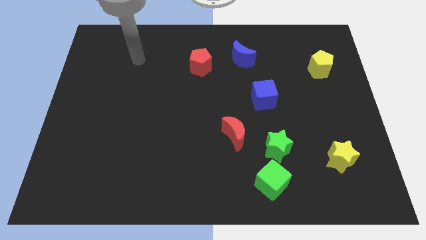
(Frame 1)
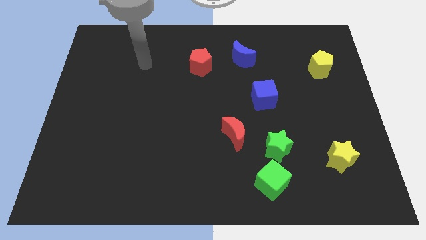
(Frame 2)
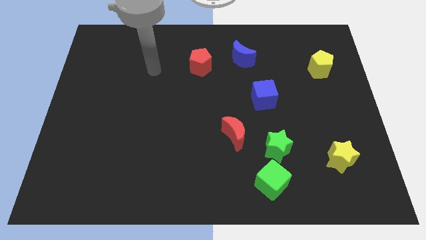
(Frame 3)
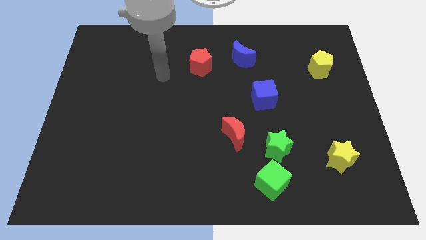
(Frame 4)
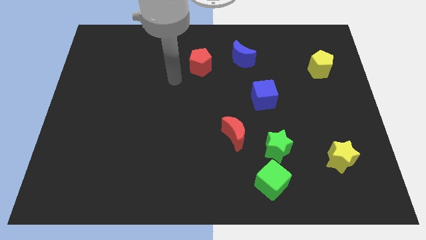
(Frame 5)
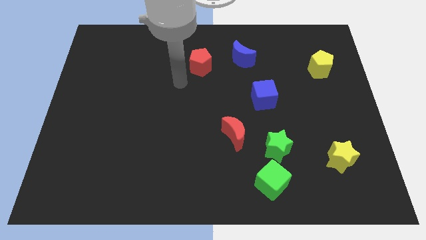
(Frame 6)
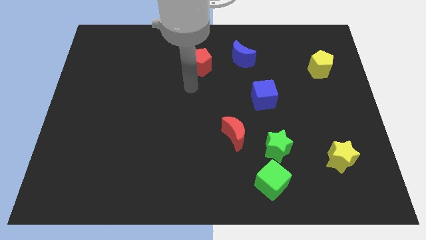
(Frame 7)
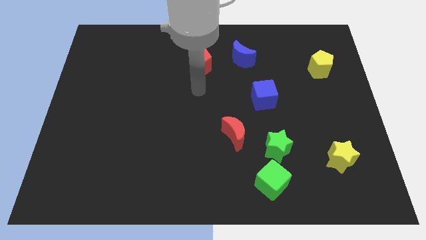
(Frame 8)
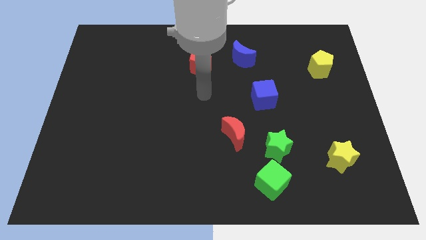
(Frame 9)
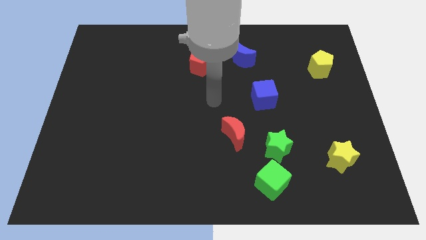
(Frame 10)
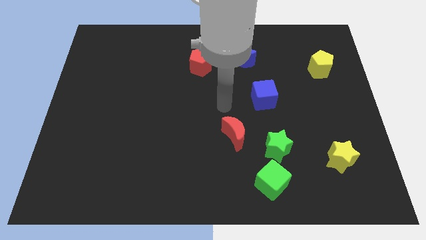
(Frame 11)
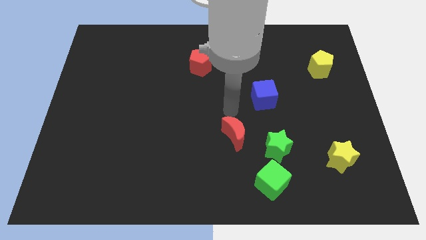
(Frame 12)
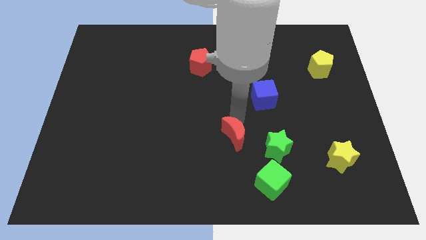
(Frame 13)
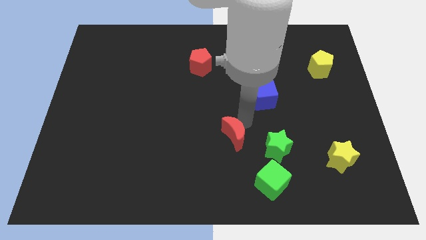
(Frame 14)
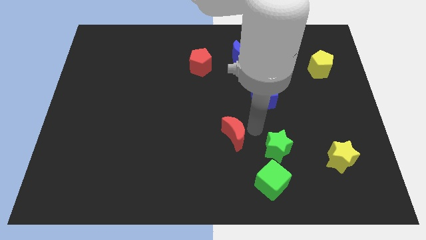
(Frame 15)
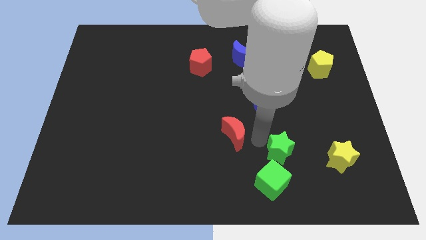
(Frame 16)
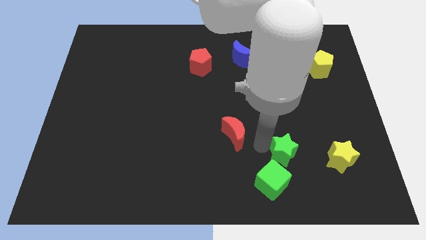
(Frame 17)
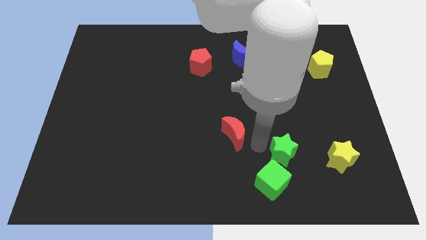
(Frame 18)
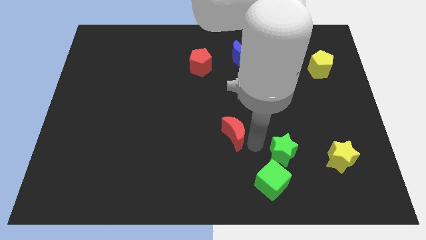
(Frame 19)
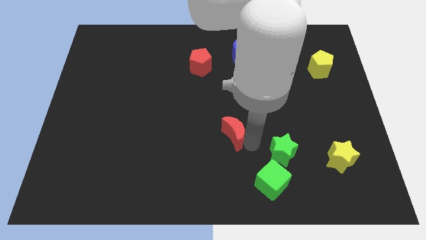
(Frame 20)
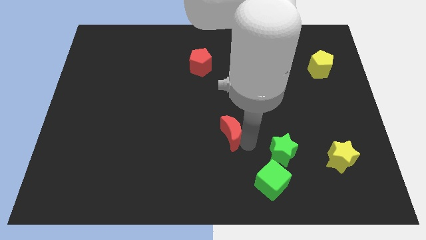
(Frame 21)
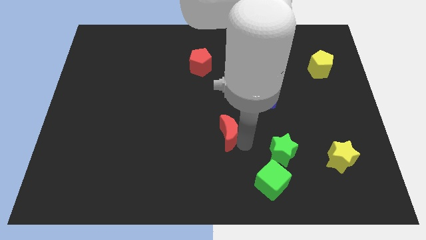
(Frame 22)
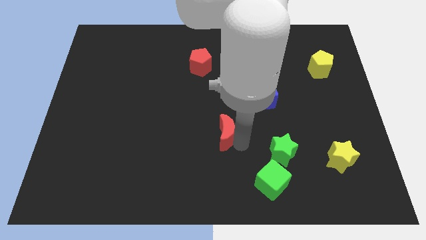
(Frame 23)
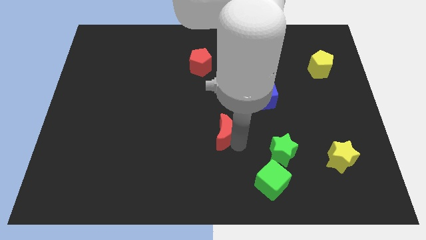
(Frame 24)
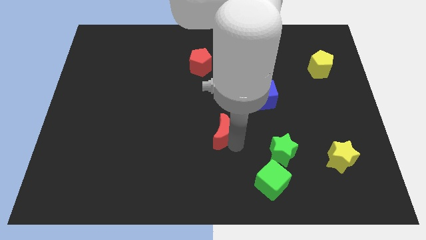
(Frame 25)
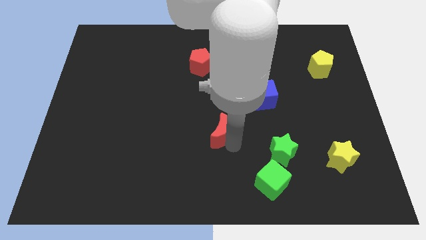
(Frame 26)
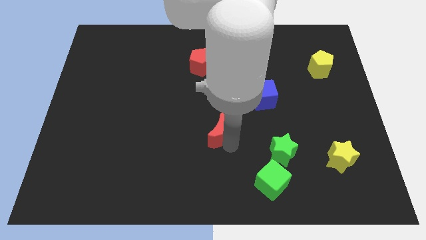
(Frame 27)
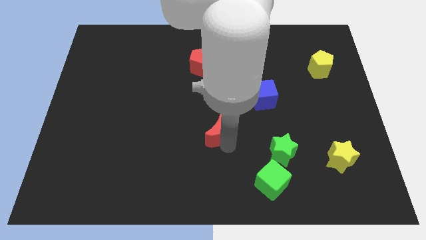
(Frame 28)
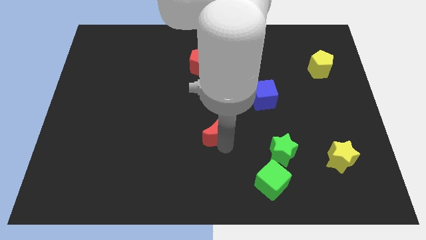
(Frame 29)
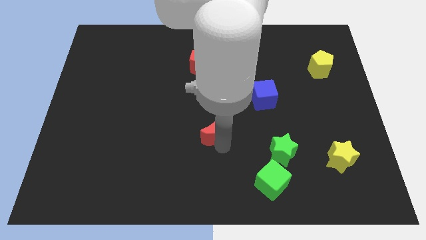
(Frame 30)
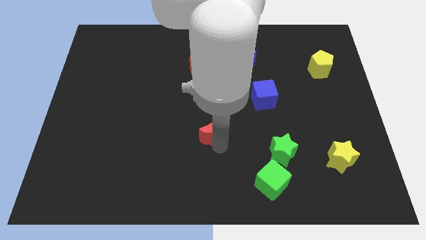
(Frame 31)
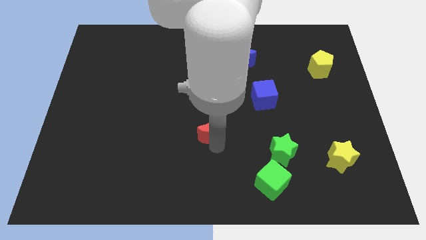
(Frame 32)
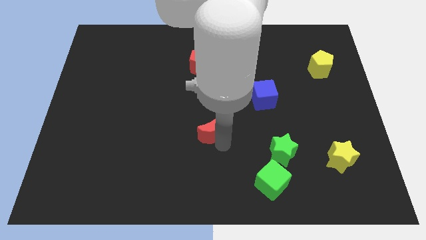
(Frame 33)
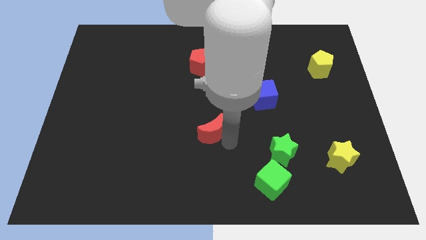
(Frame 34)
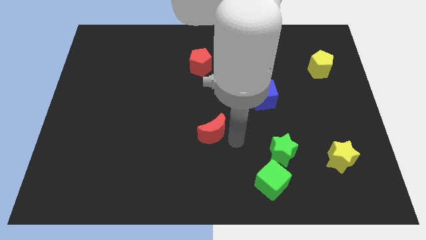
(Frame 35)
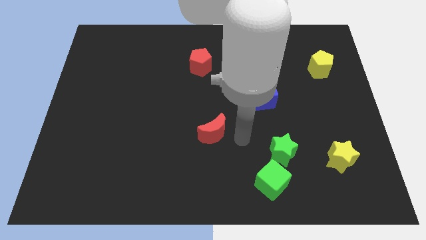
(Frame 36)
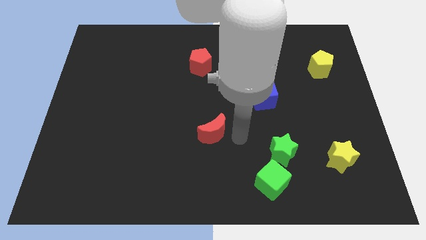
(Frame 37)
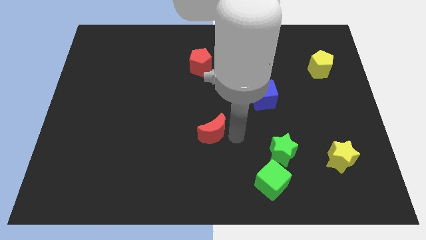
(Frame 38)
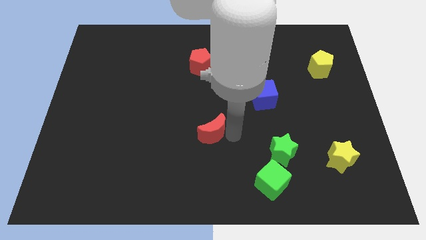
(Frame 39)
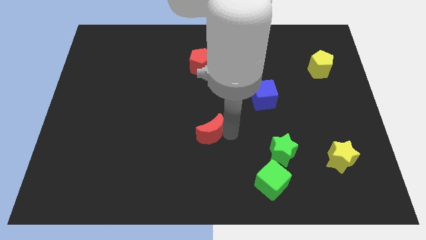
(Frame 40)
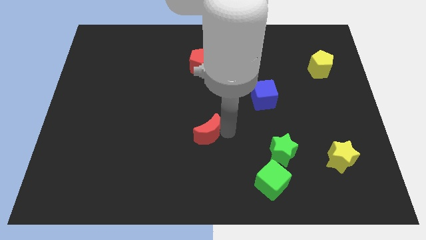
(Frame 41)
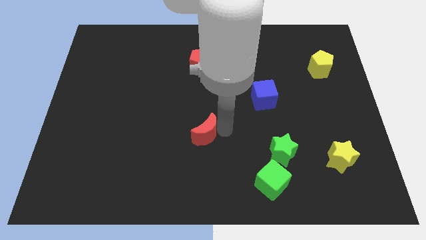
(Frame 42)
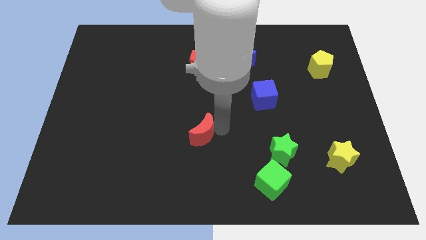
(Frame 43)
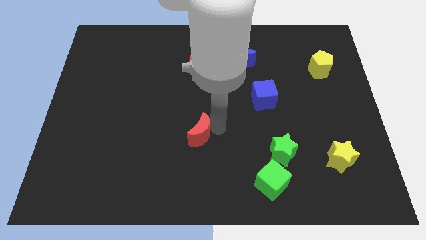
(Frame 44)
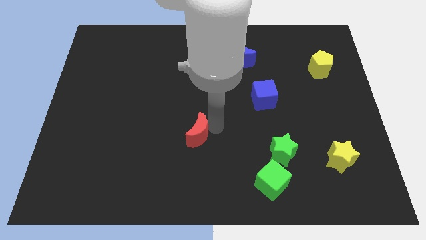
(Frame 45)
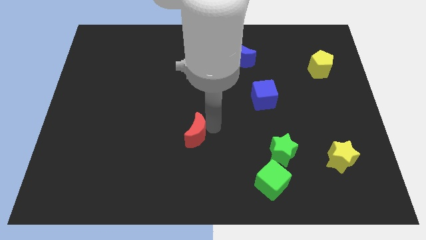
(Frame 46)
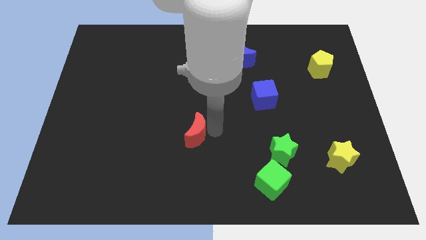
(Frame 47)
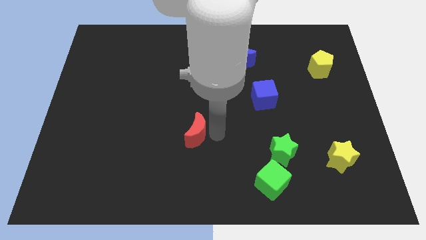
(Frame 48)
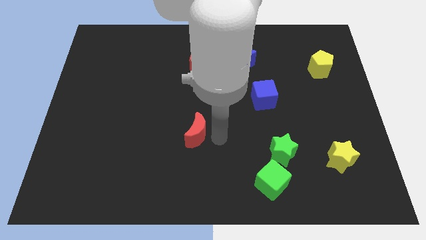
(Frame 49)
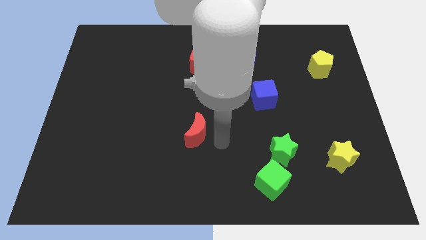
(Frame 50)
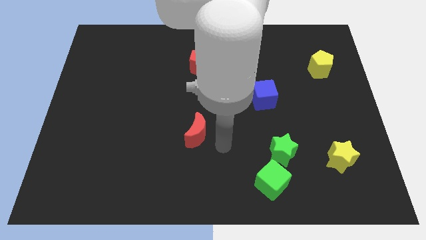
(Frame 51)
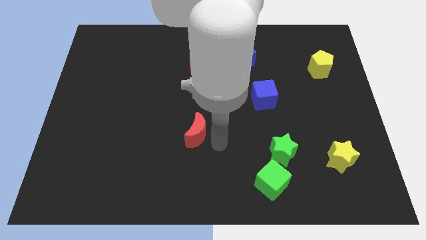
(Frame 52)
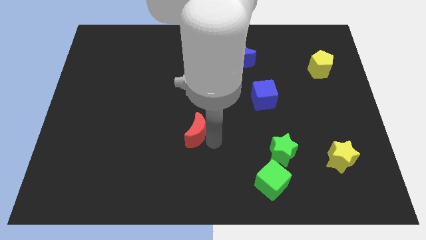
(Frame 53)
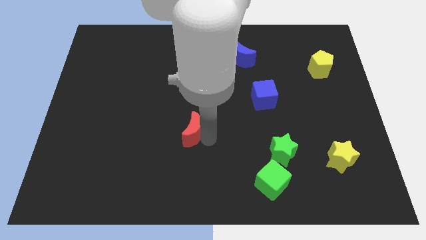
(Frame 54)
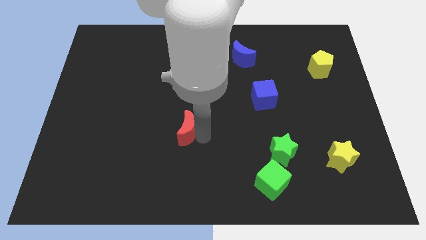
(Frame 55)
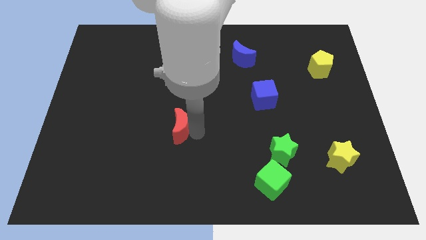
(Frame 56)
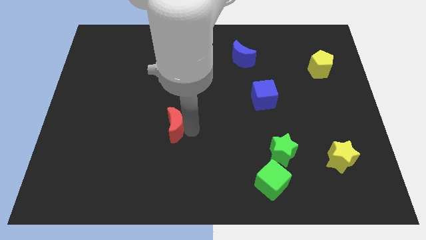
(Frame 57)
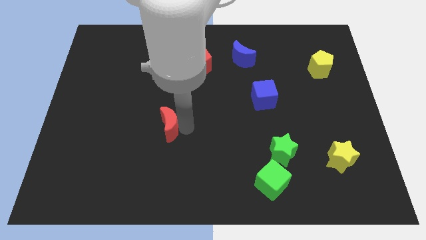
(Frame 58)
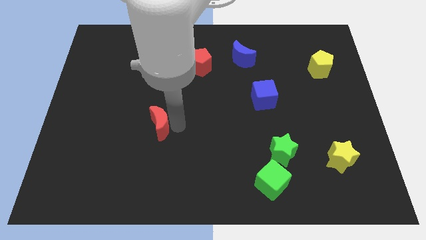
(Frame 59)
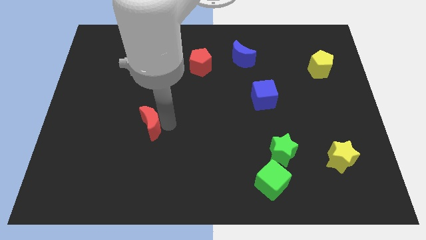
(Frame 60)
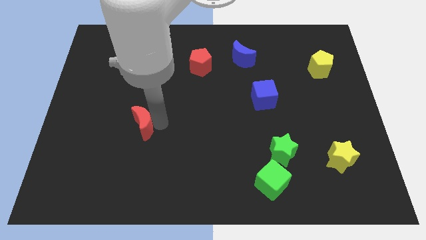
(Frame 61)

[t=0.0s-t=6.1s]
slide the red moon left

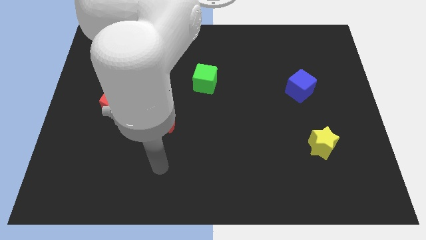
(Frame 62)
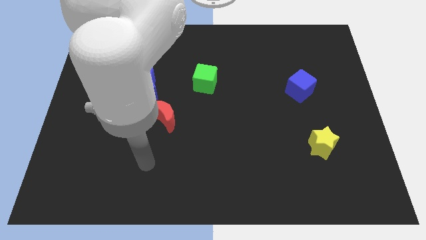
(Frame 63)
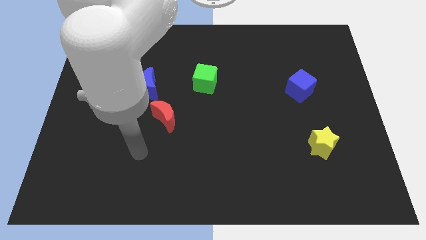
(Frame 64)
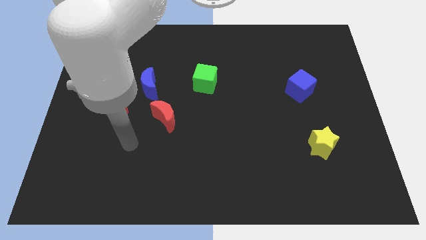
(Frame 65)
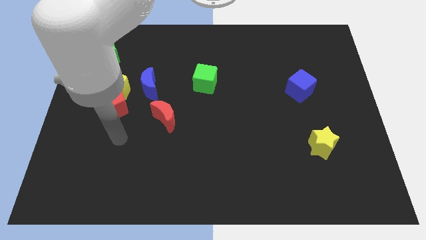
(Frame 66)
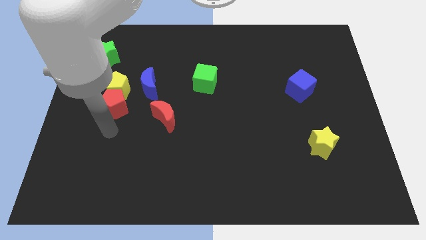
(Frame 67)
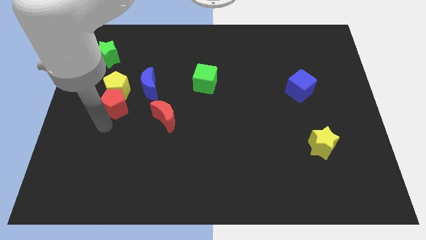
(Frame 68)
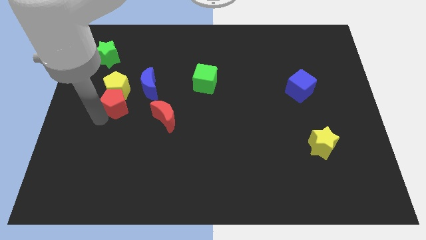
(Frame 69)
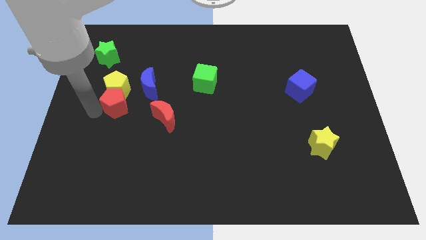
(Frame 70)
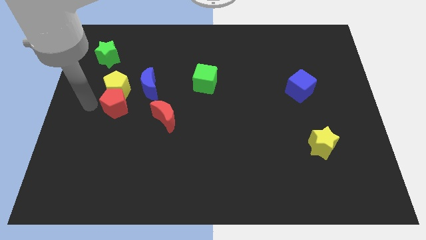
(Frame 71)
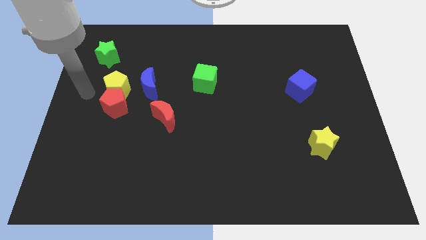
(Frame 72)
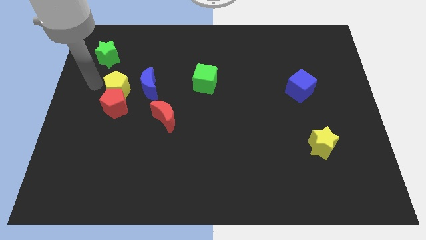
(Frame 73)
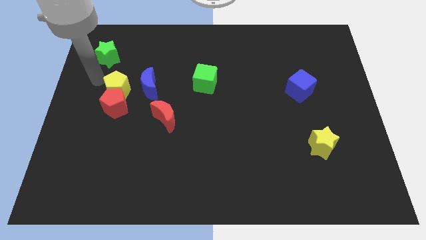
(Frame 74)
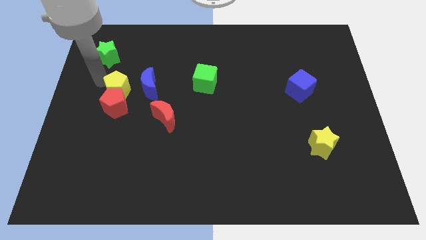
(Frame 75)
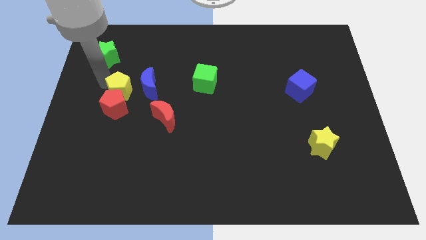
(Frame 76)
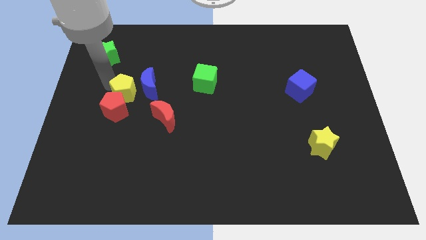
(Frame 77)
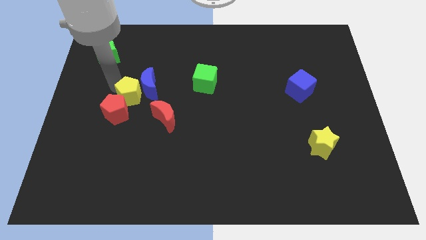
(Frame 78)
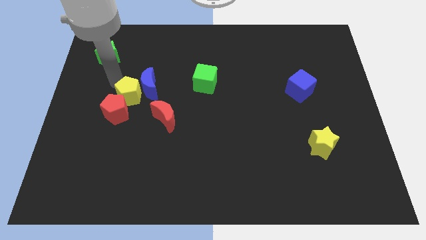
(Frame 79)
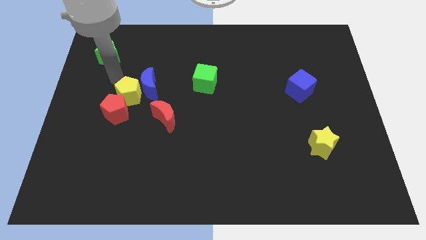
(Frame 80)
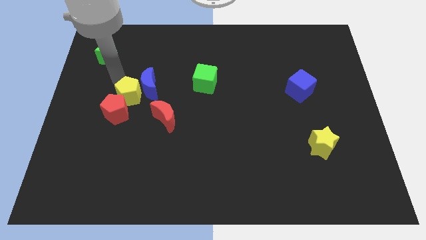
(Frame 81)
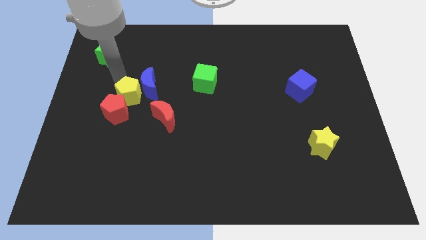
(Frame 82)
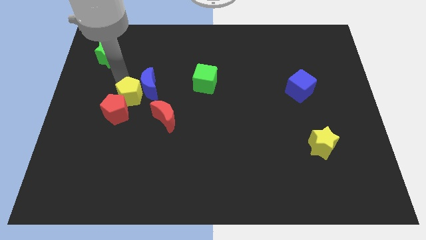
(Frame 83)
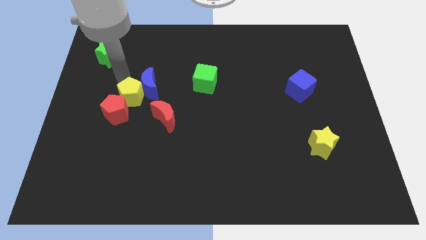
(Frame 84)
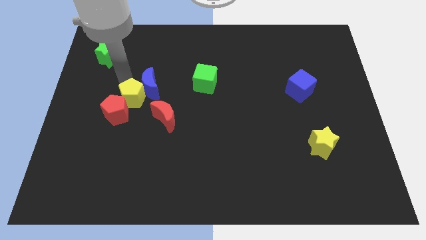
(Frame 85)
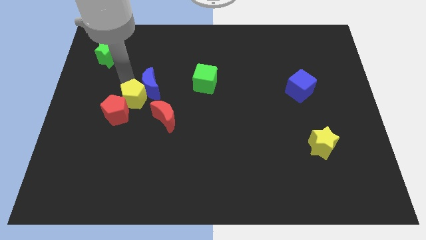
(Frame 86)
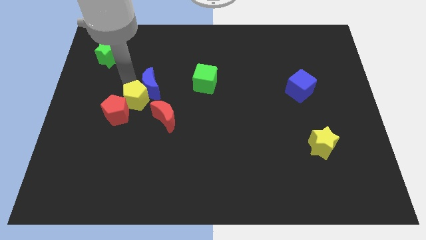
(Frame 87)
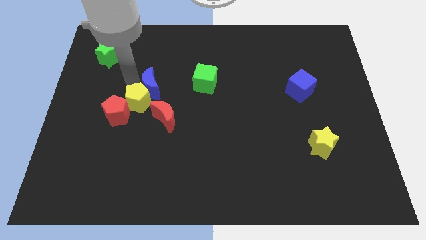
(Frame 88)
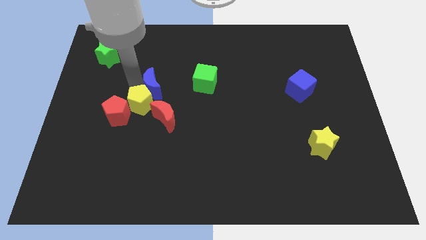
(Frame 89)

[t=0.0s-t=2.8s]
slide the yellow pentagon diagonally downwards and right a little
